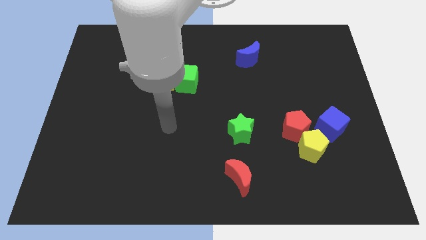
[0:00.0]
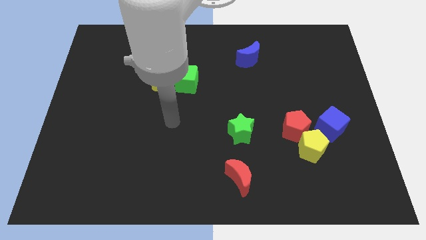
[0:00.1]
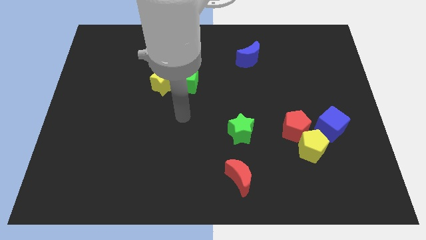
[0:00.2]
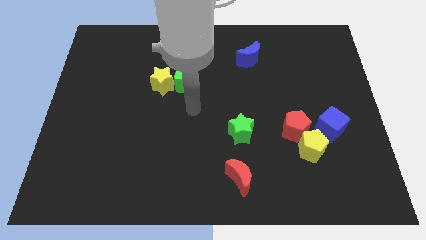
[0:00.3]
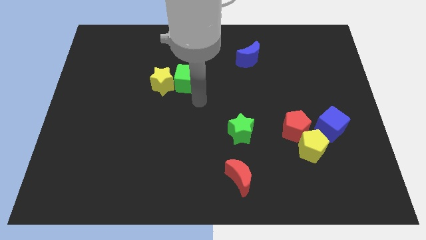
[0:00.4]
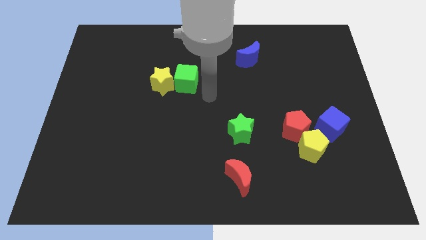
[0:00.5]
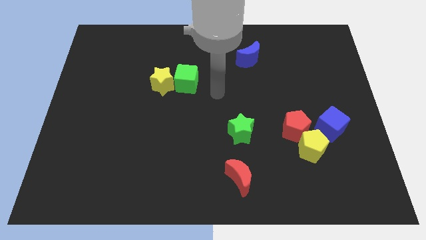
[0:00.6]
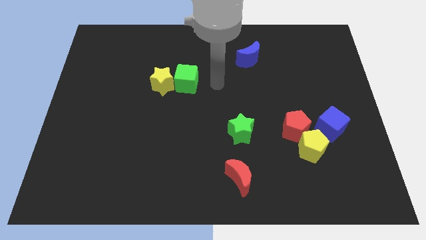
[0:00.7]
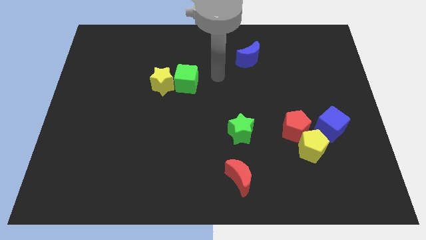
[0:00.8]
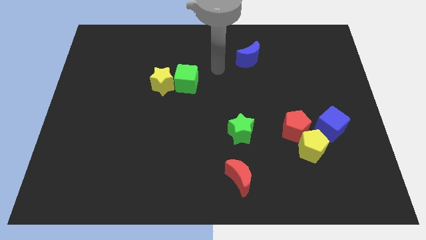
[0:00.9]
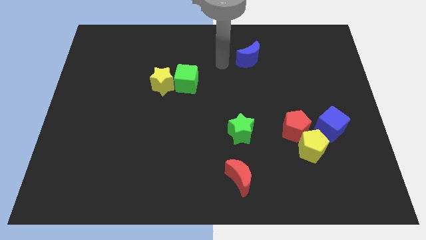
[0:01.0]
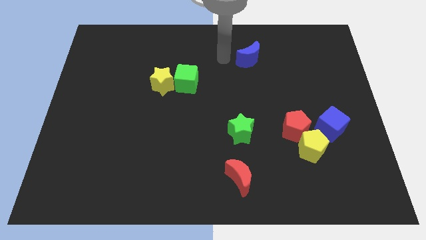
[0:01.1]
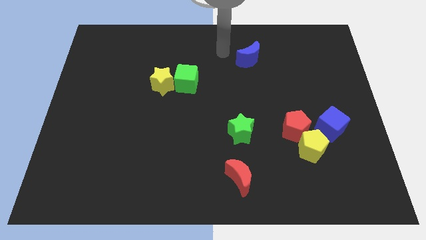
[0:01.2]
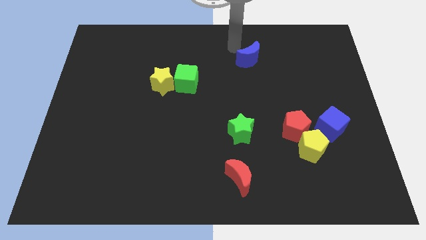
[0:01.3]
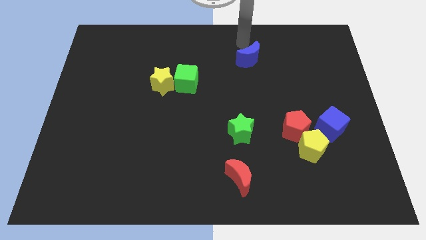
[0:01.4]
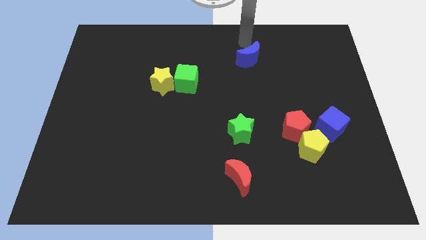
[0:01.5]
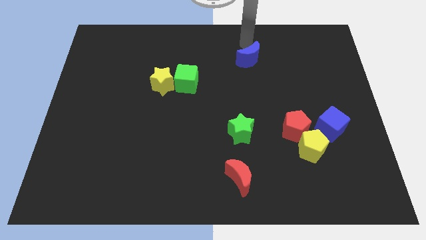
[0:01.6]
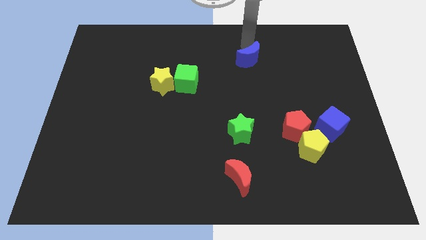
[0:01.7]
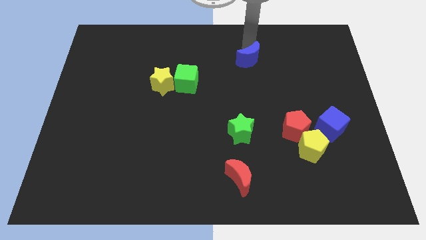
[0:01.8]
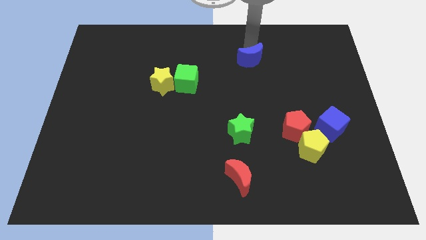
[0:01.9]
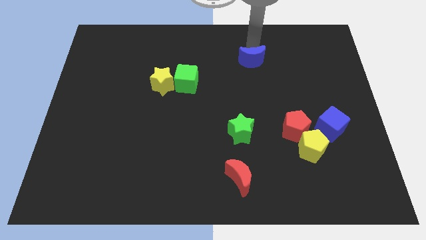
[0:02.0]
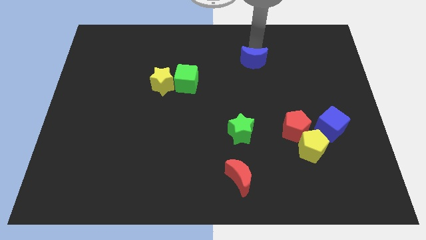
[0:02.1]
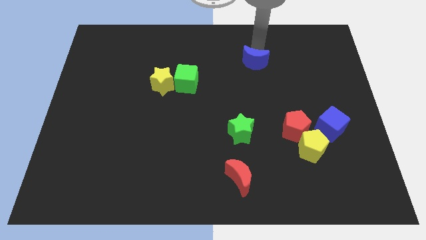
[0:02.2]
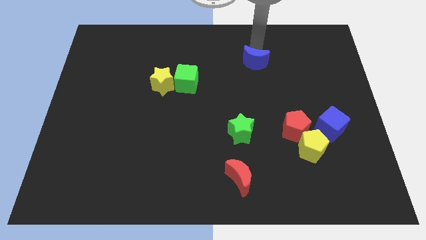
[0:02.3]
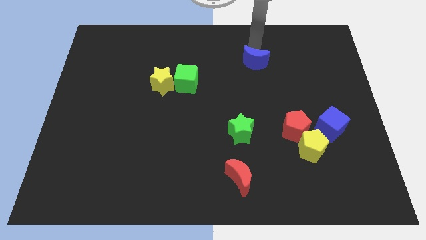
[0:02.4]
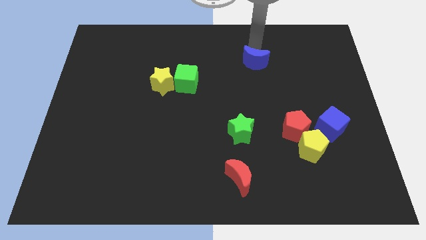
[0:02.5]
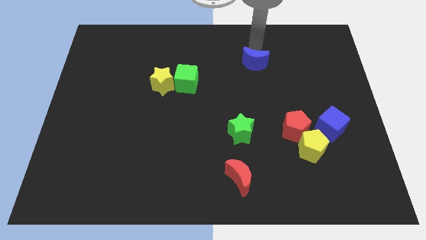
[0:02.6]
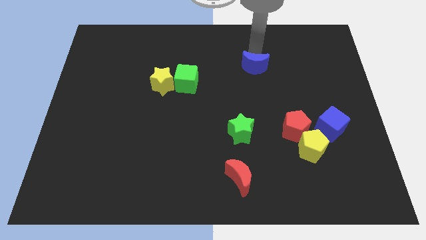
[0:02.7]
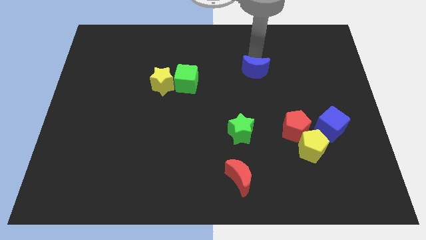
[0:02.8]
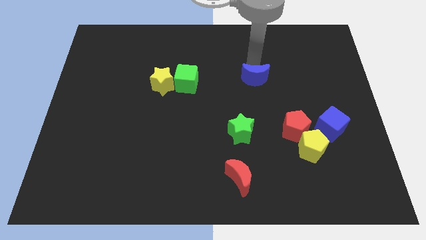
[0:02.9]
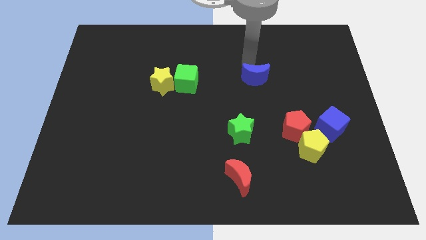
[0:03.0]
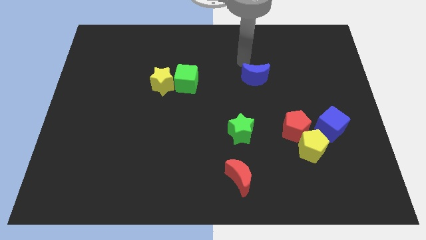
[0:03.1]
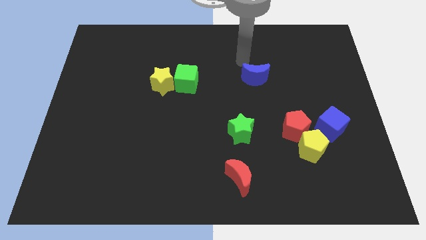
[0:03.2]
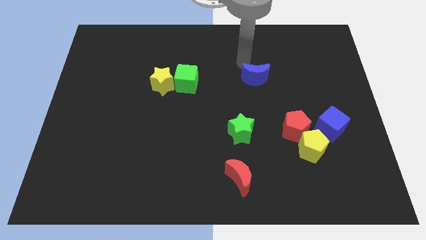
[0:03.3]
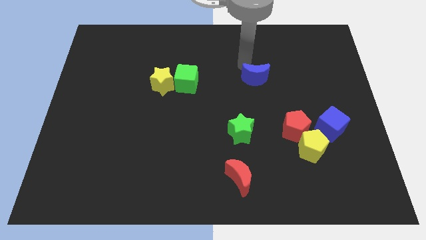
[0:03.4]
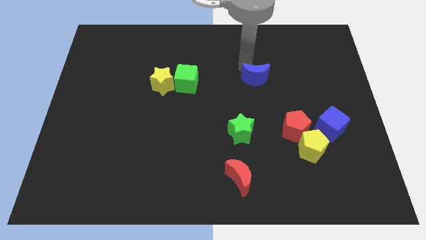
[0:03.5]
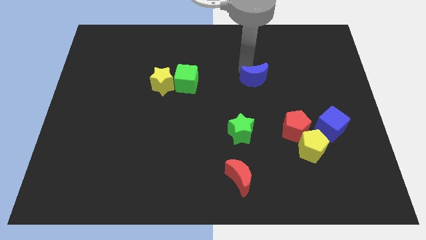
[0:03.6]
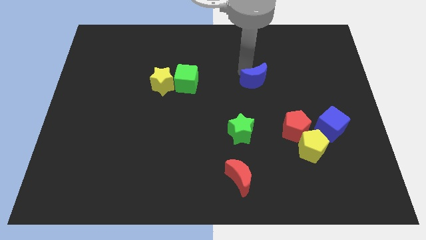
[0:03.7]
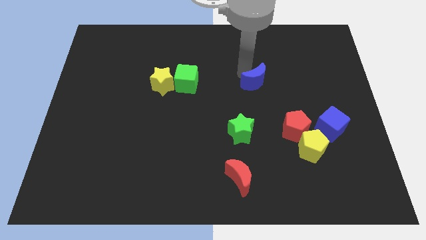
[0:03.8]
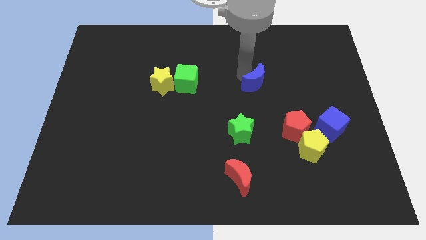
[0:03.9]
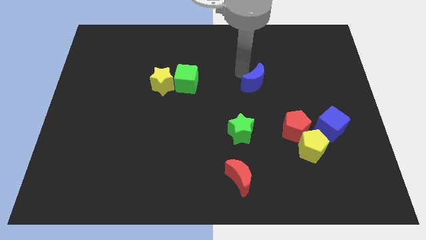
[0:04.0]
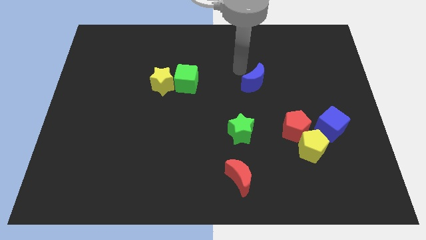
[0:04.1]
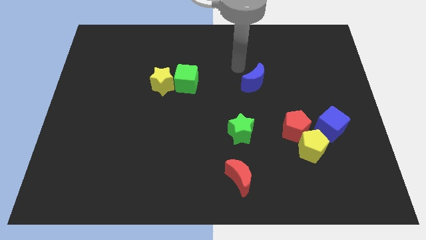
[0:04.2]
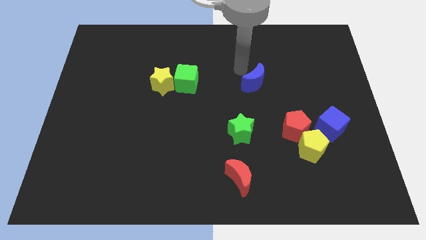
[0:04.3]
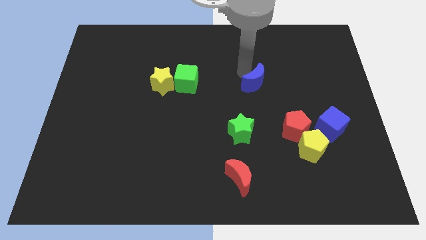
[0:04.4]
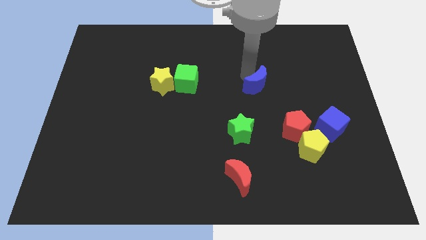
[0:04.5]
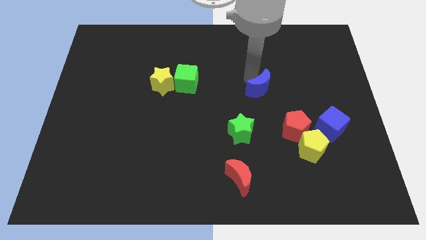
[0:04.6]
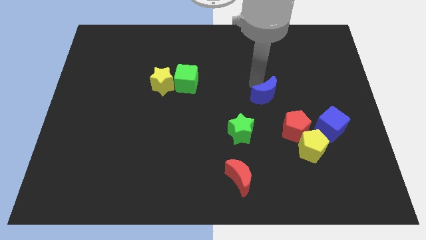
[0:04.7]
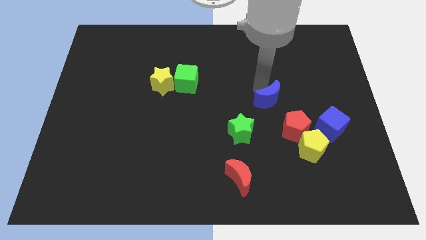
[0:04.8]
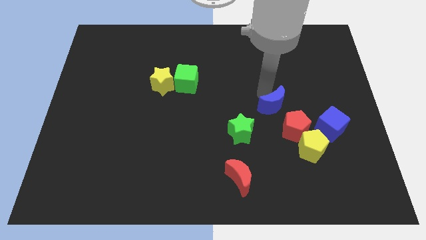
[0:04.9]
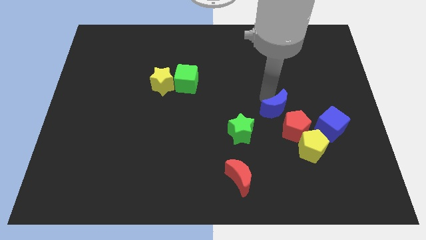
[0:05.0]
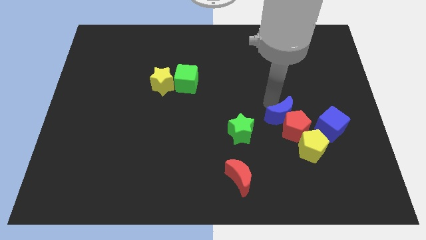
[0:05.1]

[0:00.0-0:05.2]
move the blue moon next to the red pentagon

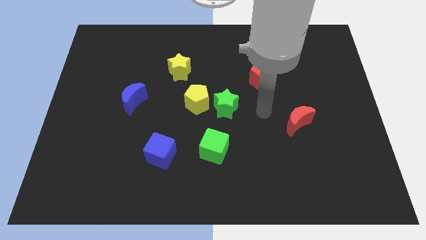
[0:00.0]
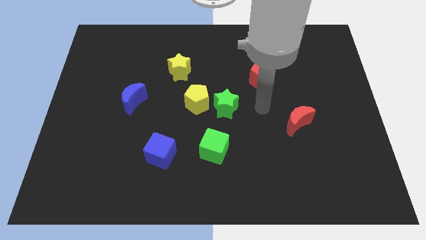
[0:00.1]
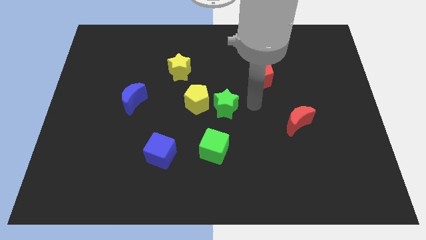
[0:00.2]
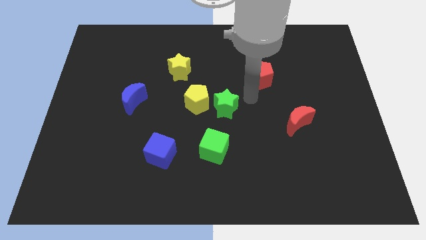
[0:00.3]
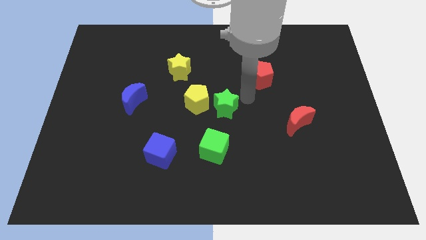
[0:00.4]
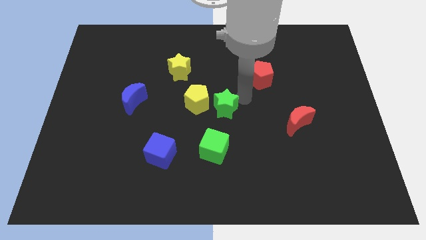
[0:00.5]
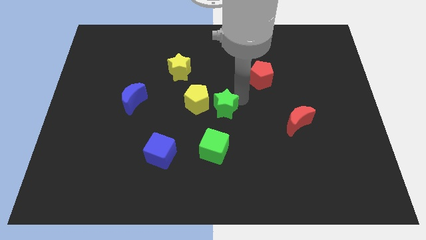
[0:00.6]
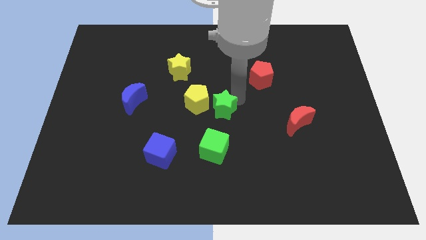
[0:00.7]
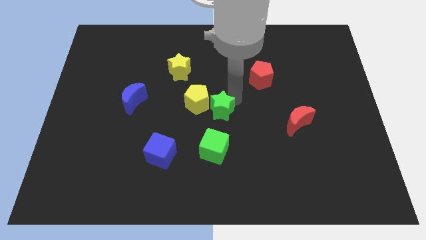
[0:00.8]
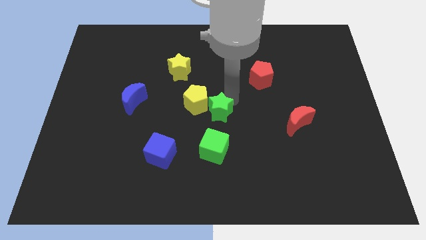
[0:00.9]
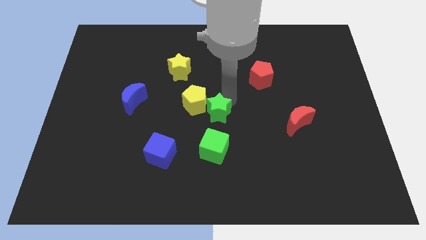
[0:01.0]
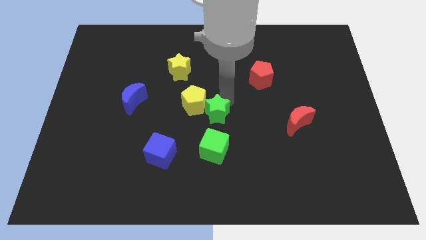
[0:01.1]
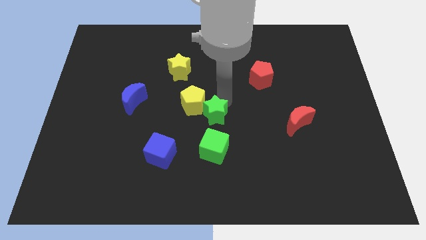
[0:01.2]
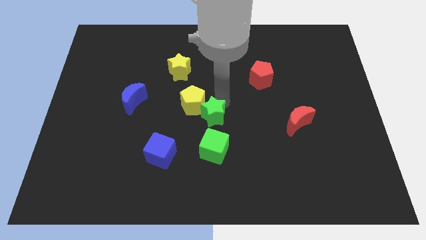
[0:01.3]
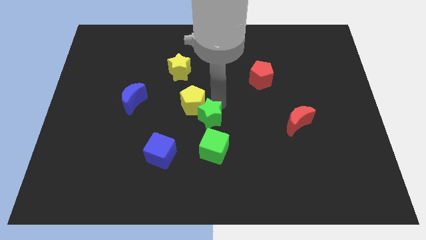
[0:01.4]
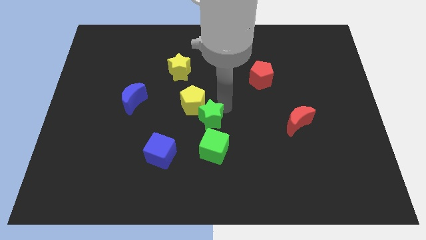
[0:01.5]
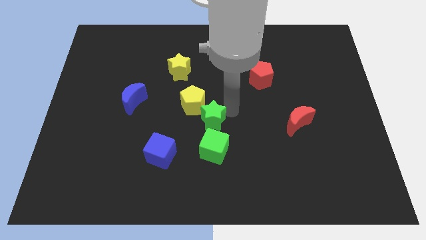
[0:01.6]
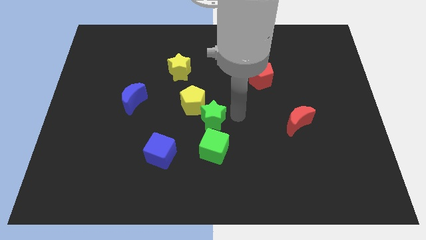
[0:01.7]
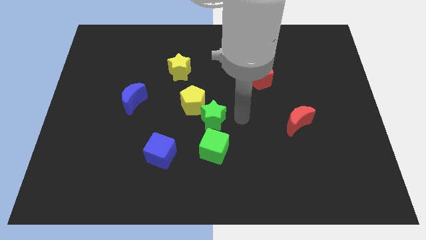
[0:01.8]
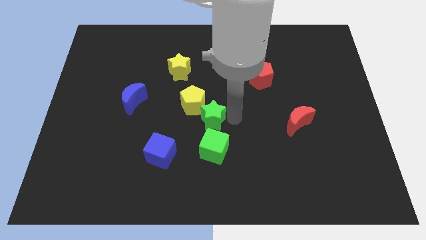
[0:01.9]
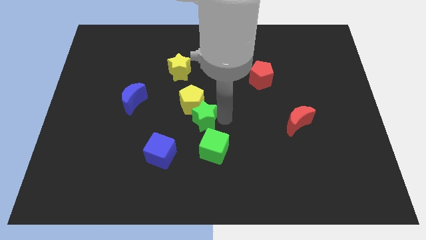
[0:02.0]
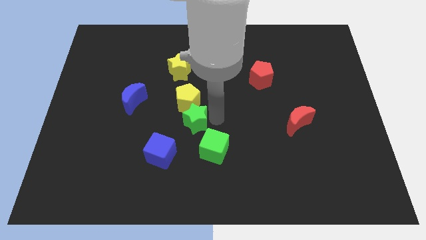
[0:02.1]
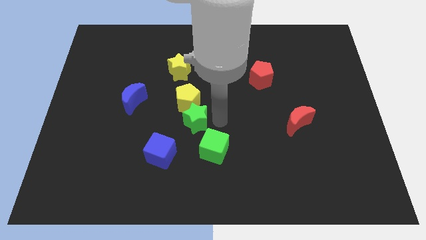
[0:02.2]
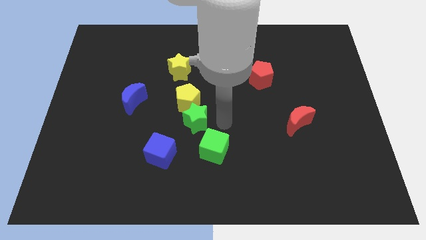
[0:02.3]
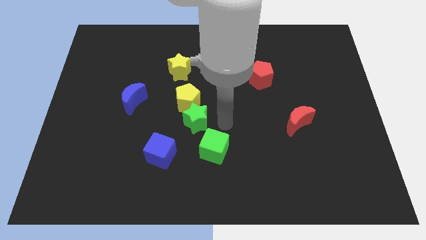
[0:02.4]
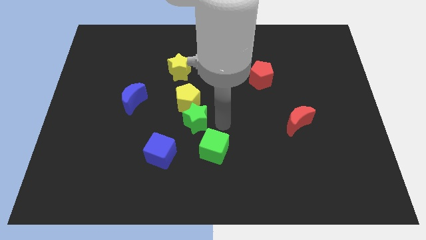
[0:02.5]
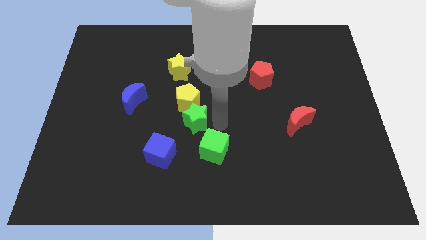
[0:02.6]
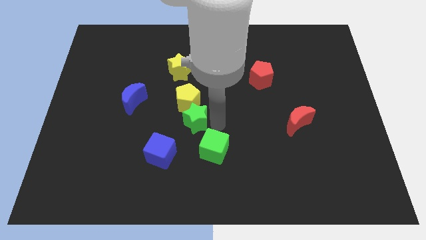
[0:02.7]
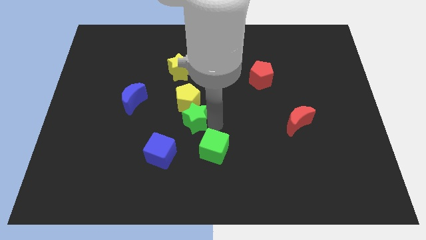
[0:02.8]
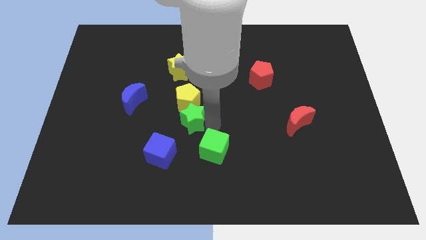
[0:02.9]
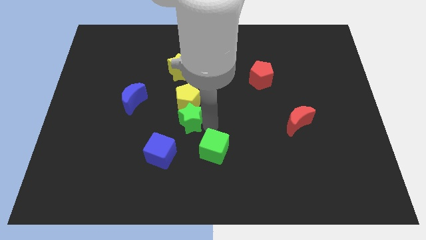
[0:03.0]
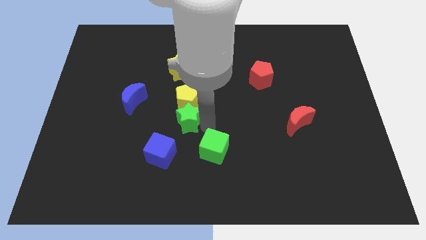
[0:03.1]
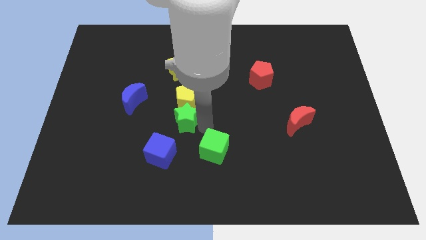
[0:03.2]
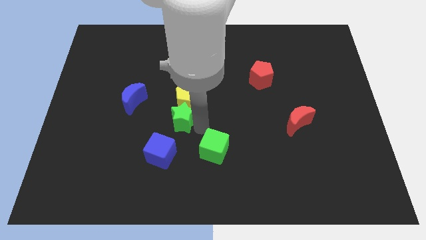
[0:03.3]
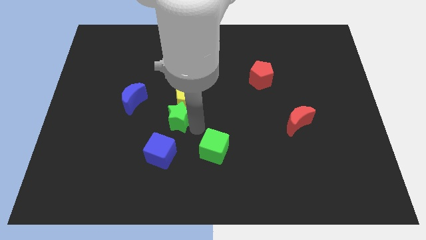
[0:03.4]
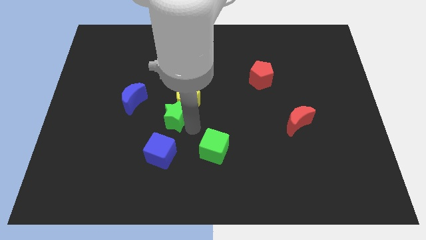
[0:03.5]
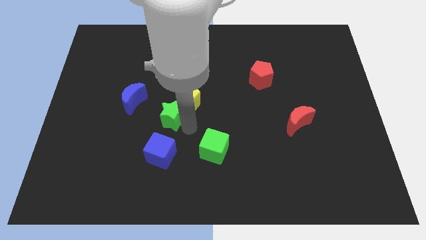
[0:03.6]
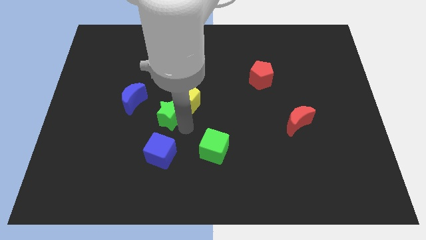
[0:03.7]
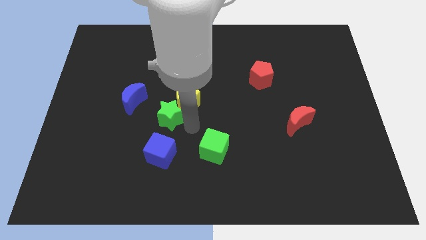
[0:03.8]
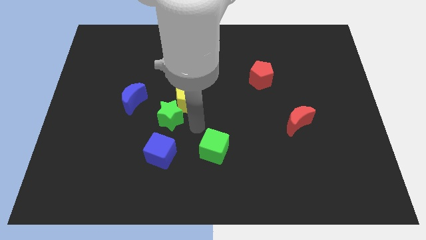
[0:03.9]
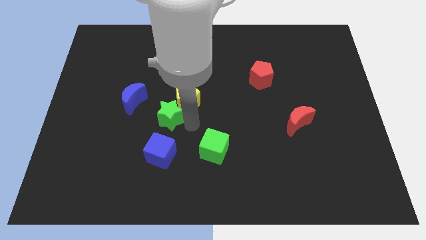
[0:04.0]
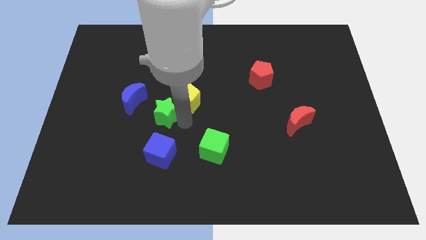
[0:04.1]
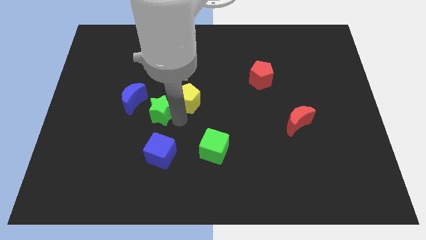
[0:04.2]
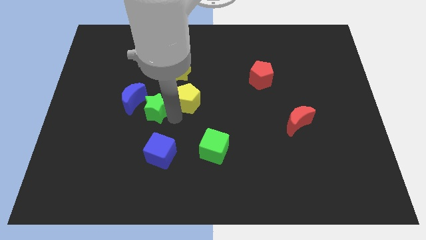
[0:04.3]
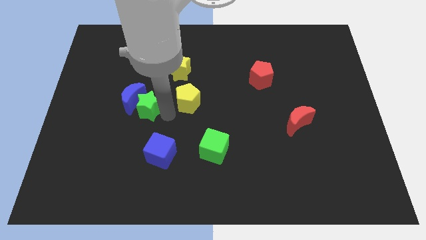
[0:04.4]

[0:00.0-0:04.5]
slide the green star close to the blue moon
